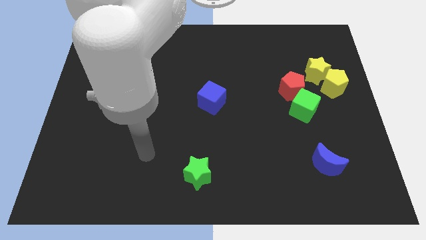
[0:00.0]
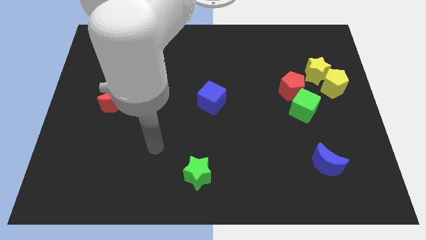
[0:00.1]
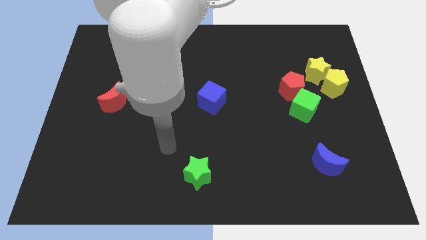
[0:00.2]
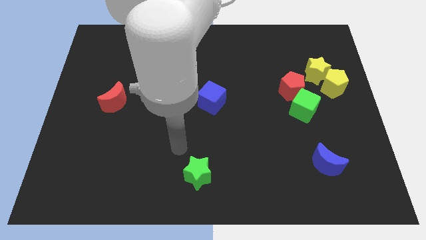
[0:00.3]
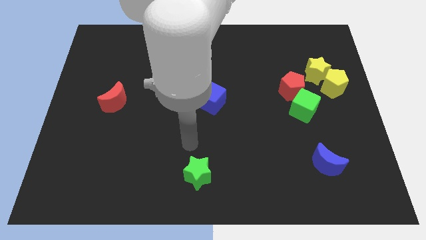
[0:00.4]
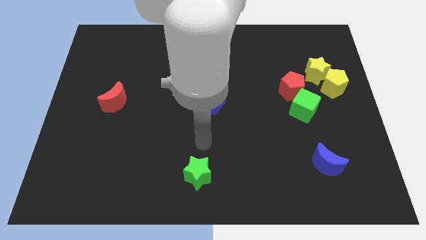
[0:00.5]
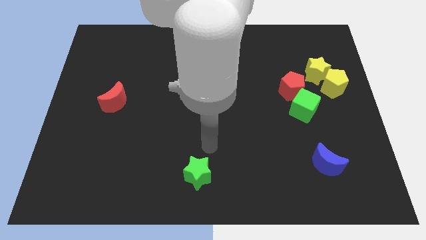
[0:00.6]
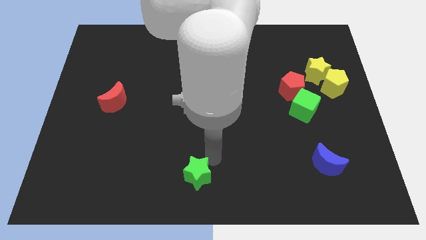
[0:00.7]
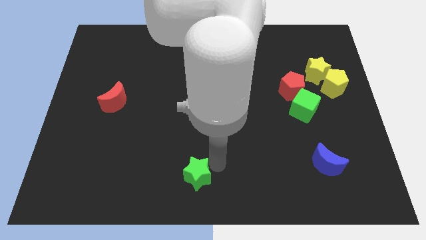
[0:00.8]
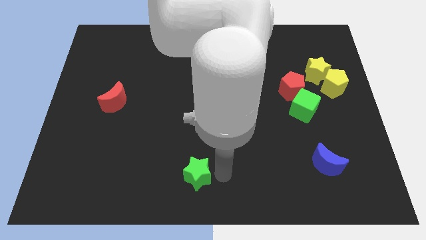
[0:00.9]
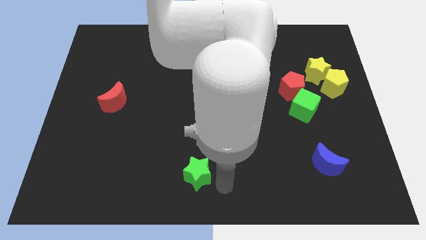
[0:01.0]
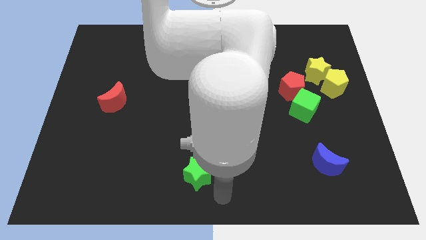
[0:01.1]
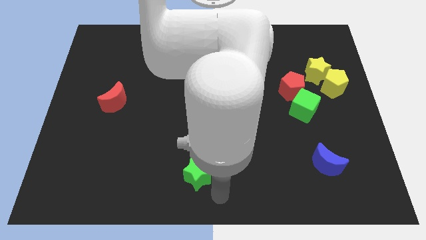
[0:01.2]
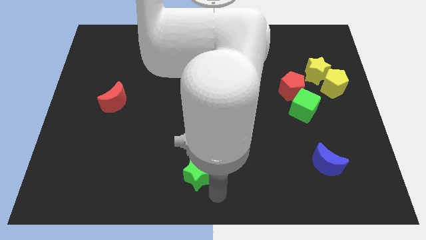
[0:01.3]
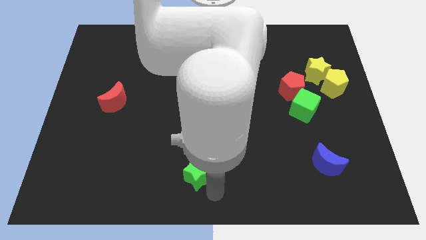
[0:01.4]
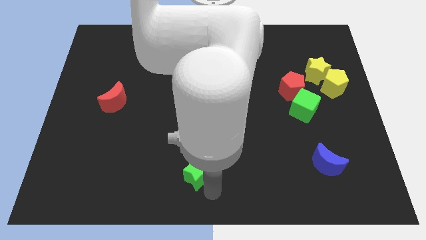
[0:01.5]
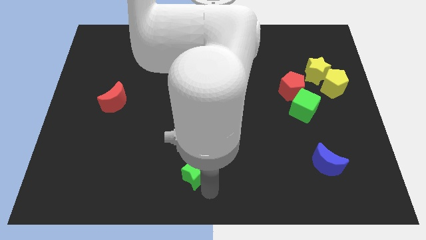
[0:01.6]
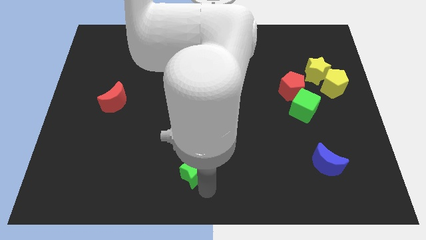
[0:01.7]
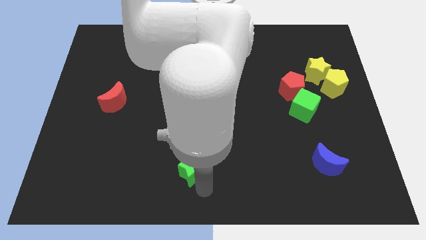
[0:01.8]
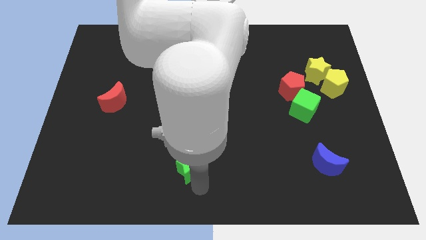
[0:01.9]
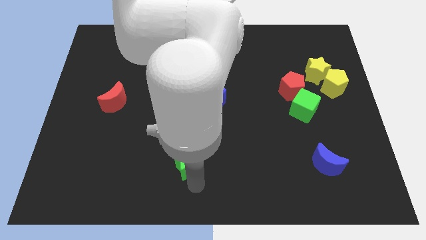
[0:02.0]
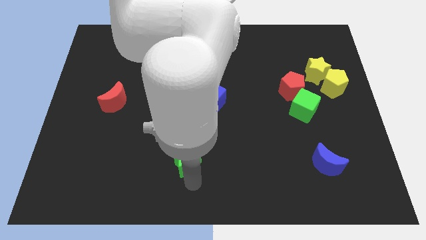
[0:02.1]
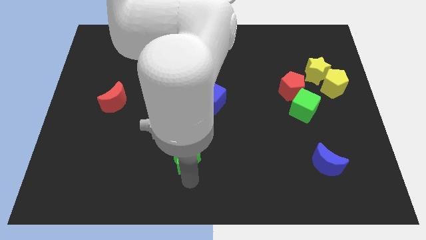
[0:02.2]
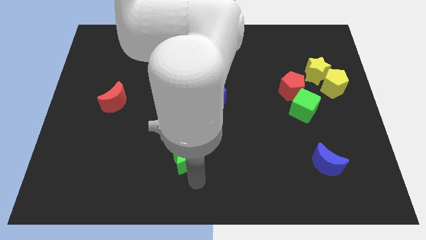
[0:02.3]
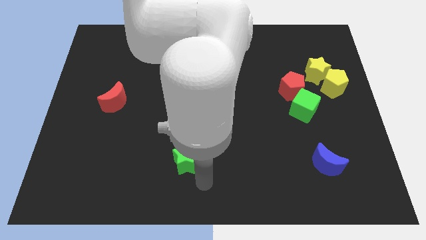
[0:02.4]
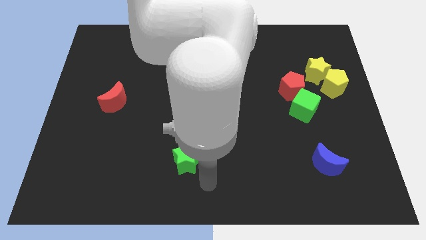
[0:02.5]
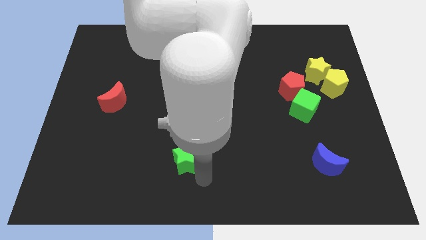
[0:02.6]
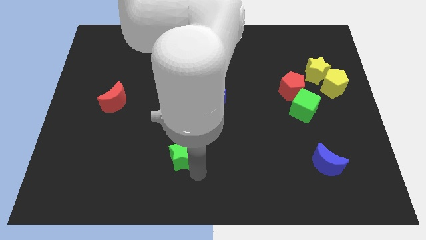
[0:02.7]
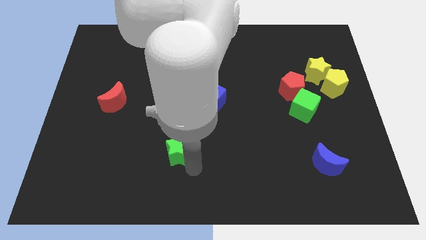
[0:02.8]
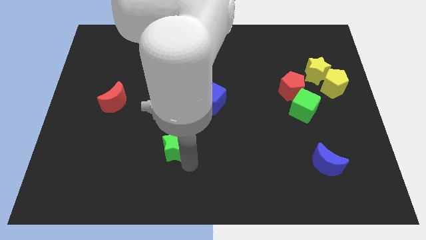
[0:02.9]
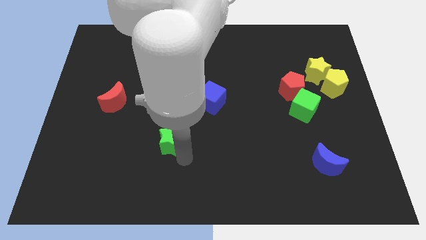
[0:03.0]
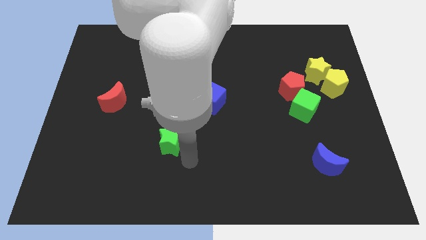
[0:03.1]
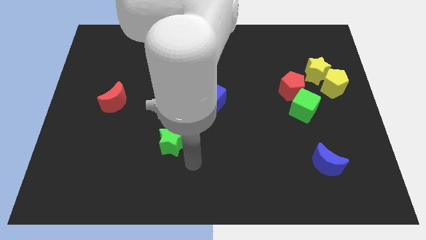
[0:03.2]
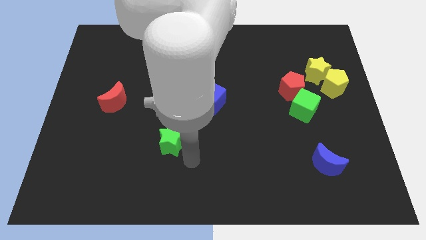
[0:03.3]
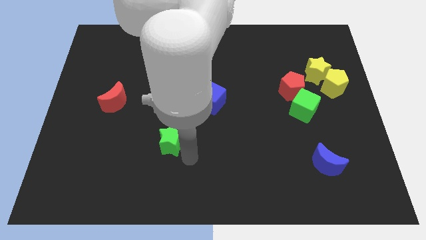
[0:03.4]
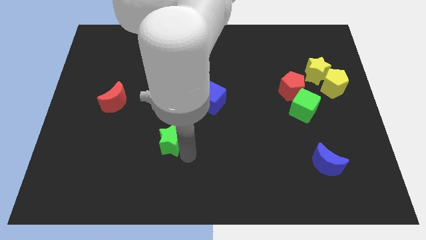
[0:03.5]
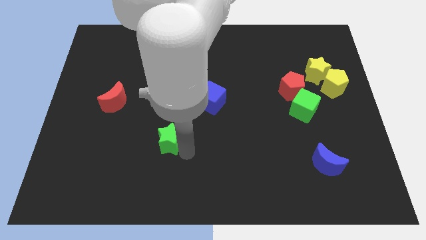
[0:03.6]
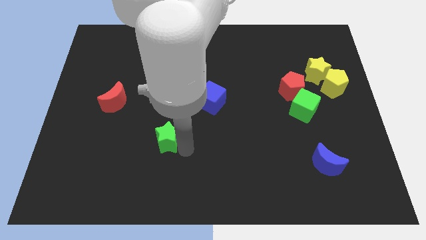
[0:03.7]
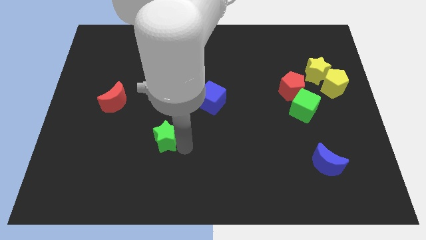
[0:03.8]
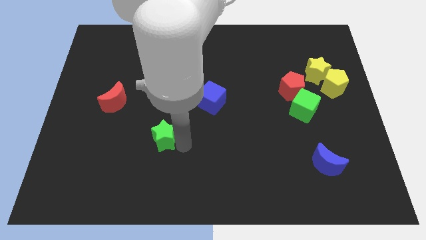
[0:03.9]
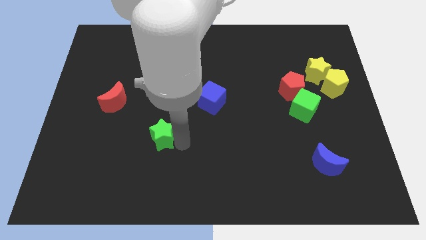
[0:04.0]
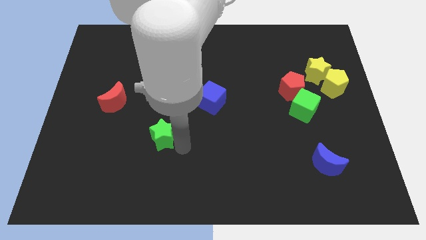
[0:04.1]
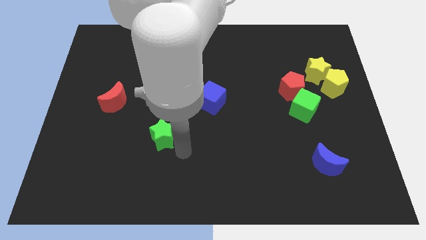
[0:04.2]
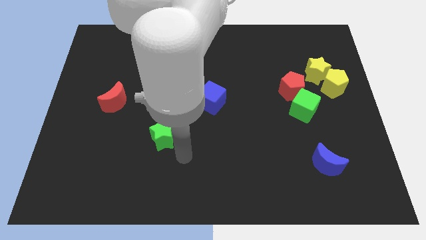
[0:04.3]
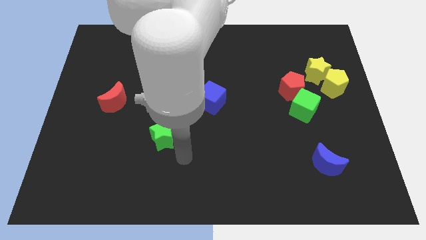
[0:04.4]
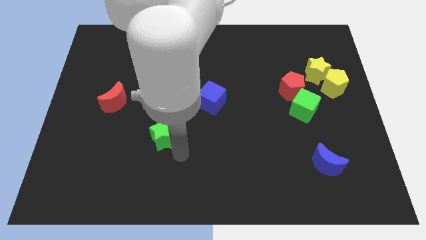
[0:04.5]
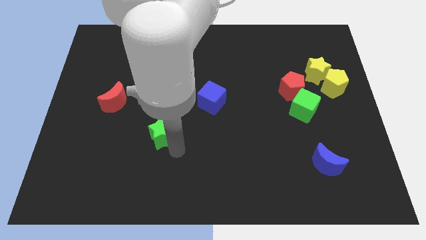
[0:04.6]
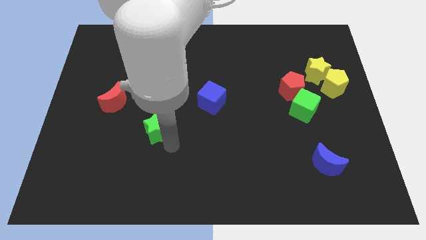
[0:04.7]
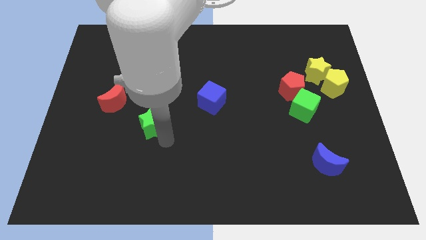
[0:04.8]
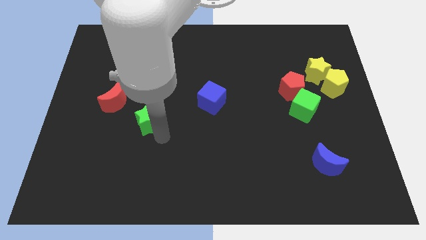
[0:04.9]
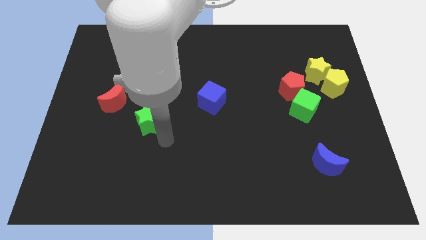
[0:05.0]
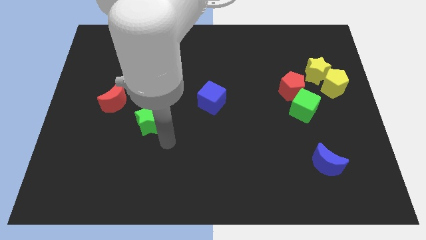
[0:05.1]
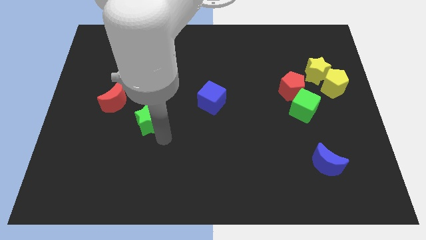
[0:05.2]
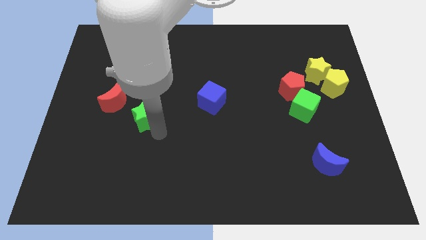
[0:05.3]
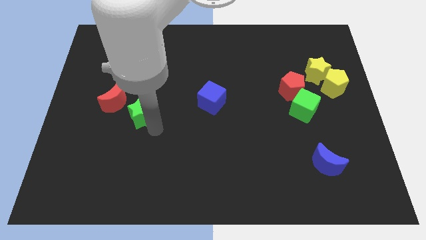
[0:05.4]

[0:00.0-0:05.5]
slide the green star upwards and left diagonally

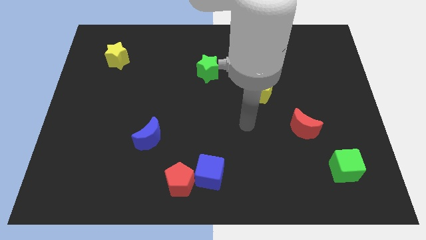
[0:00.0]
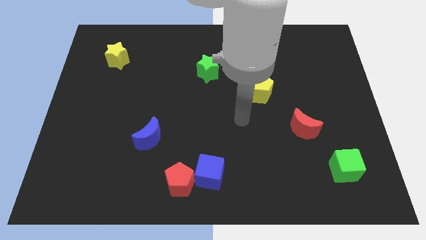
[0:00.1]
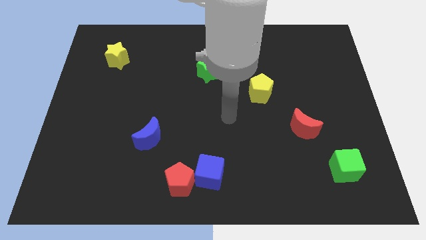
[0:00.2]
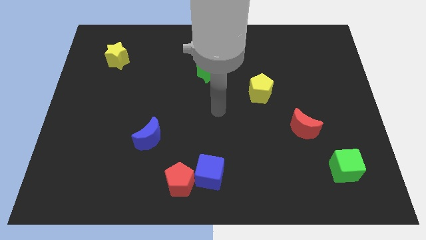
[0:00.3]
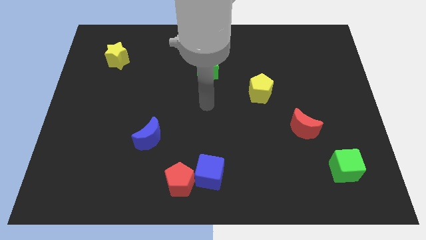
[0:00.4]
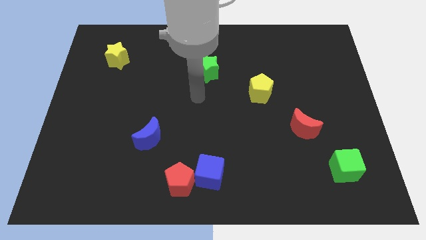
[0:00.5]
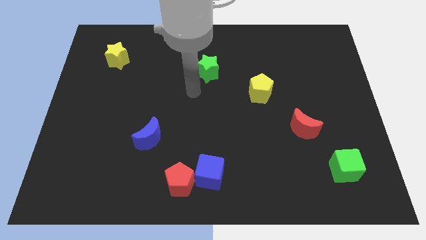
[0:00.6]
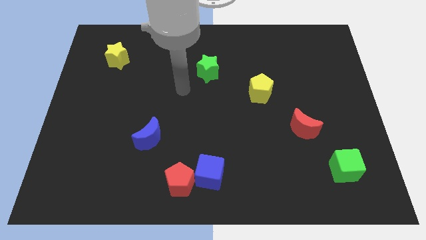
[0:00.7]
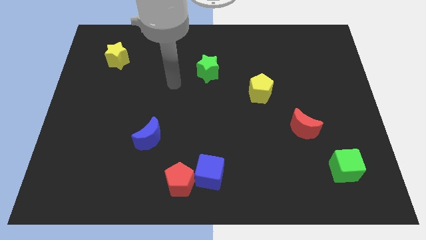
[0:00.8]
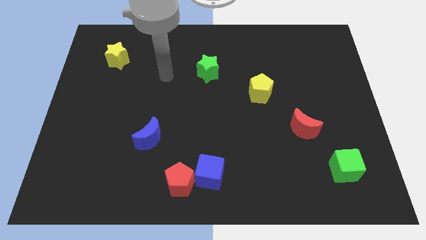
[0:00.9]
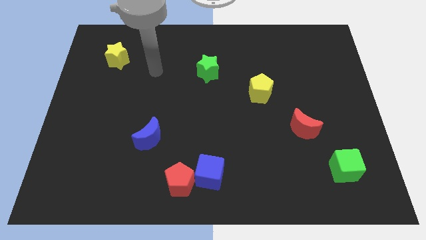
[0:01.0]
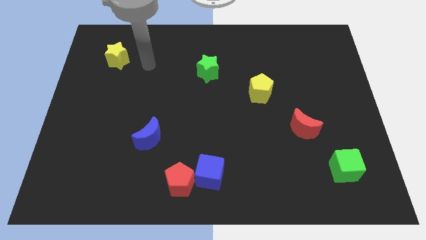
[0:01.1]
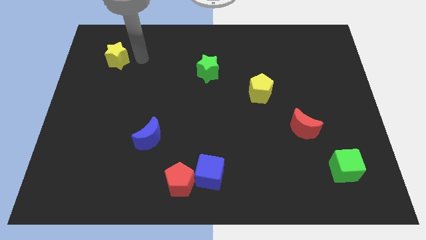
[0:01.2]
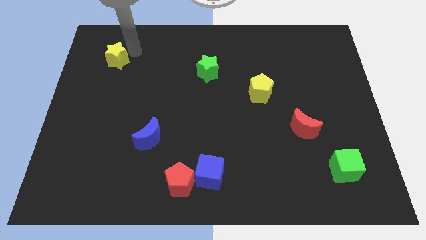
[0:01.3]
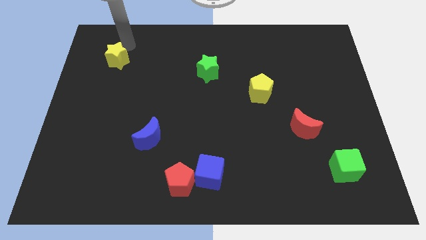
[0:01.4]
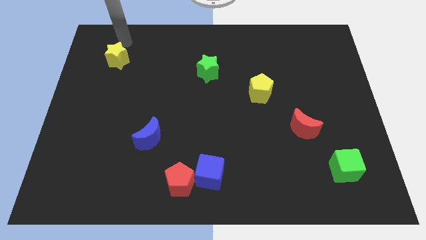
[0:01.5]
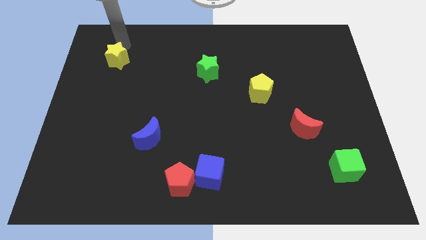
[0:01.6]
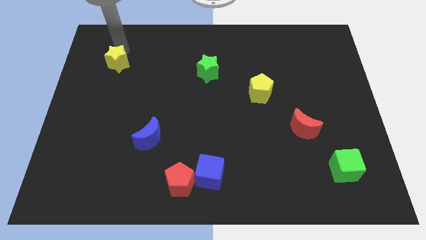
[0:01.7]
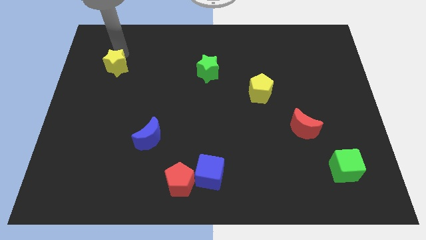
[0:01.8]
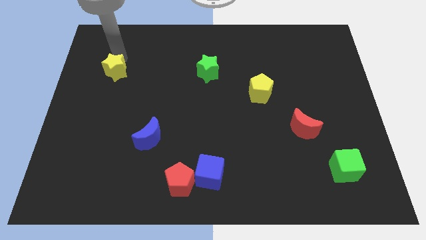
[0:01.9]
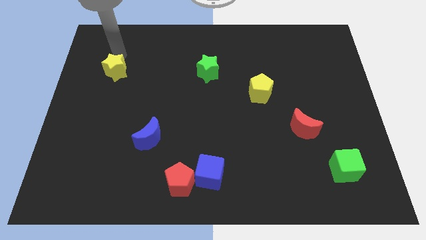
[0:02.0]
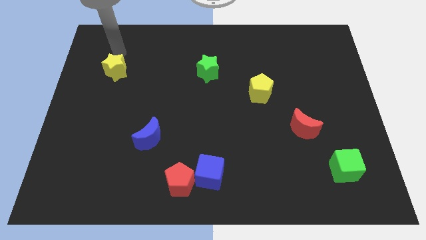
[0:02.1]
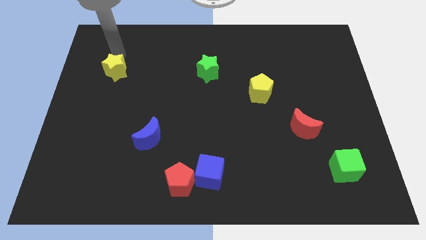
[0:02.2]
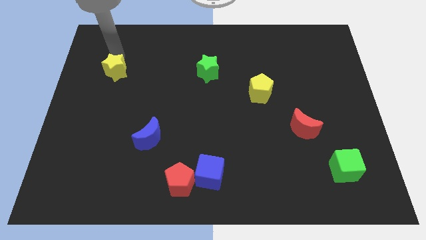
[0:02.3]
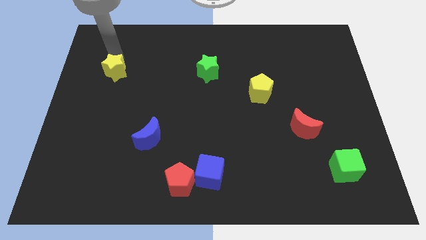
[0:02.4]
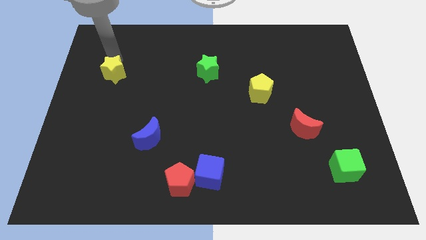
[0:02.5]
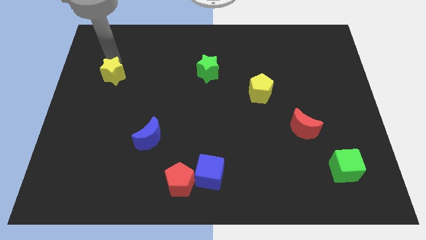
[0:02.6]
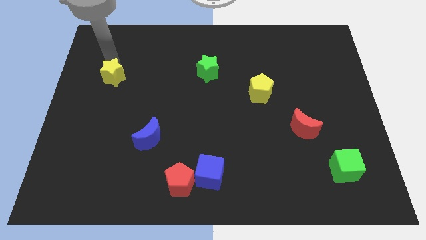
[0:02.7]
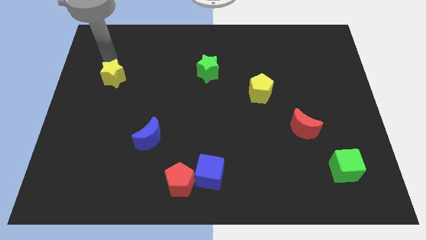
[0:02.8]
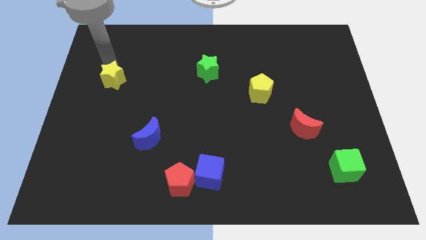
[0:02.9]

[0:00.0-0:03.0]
slightly move the yellow star down
